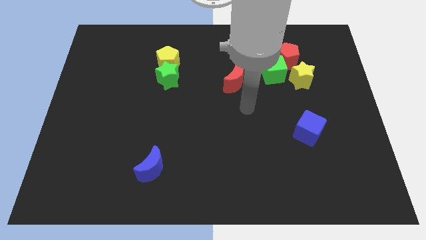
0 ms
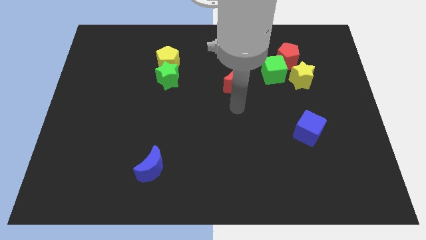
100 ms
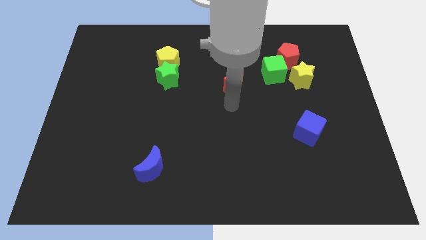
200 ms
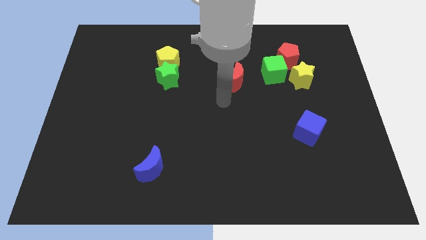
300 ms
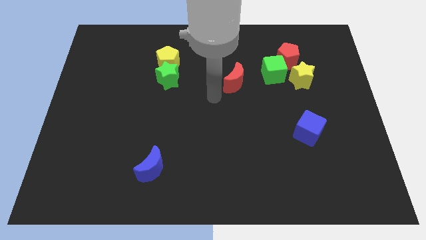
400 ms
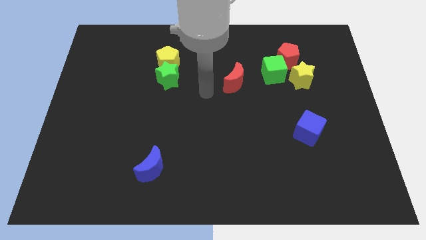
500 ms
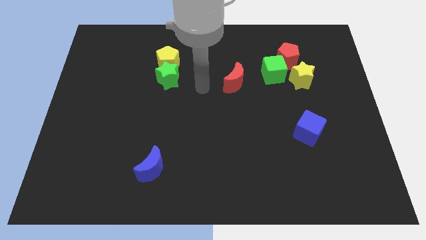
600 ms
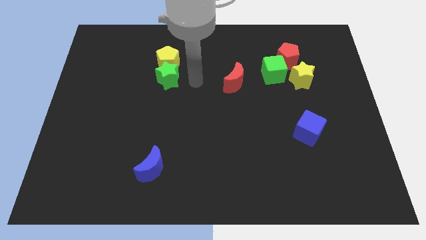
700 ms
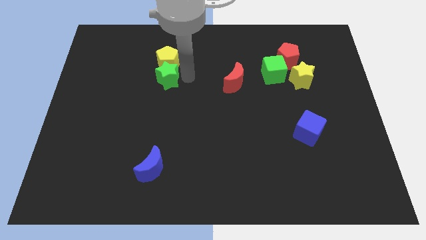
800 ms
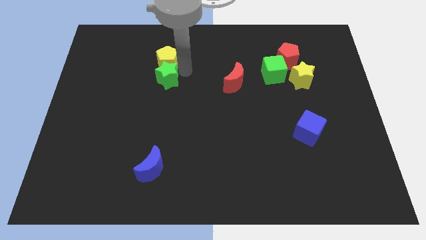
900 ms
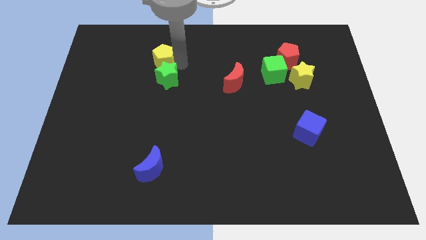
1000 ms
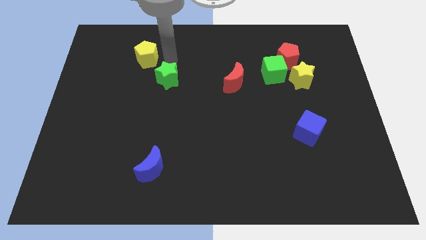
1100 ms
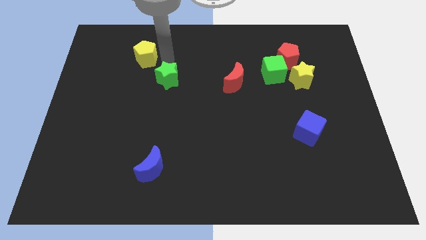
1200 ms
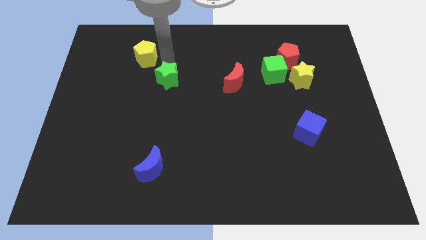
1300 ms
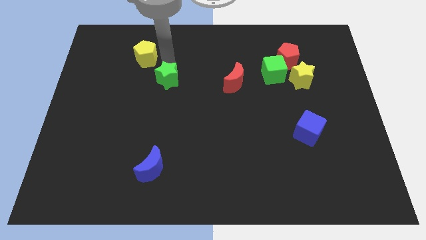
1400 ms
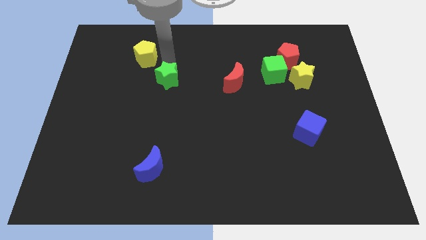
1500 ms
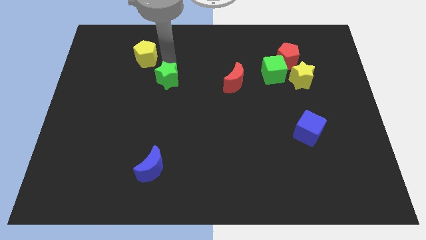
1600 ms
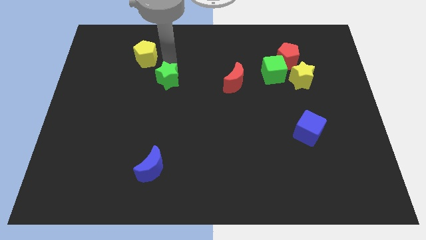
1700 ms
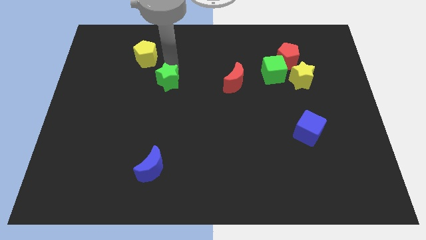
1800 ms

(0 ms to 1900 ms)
separate the green star from the yellow pentagon

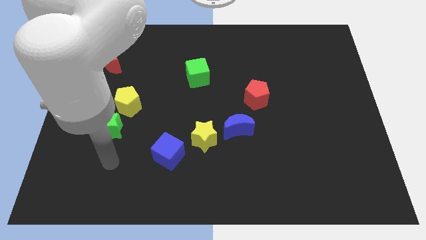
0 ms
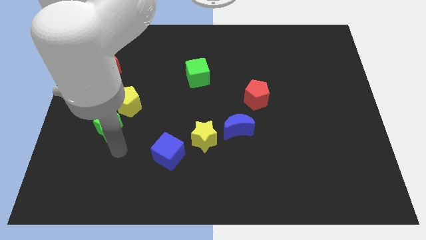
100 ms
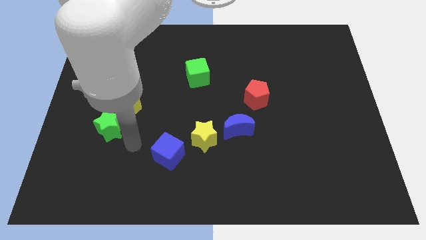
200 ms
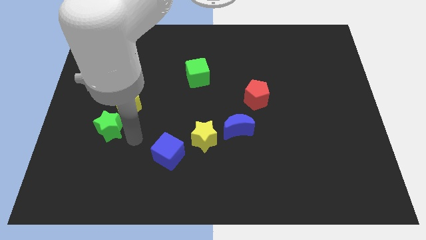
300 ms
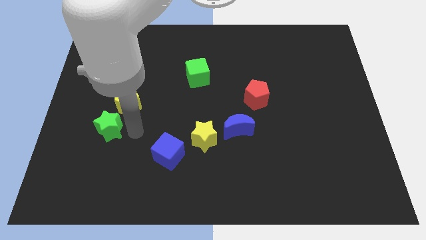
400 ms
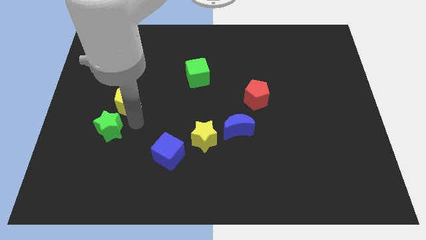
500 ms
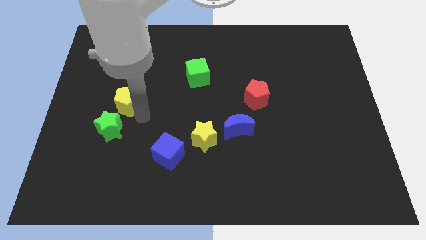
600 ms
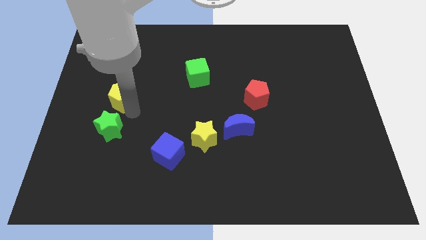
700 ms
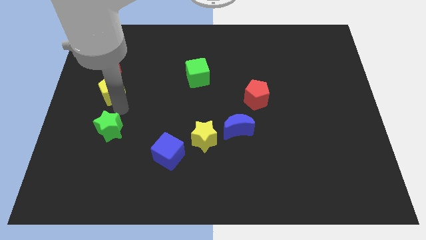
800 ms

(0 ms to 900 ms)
move the green star away from the yellow pentagon

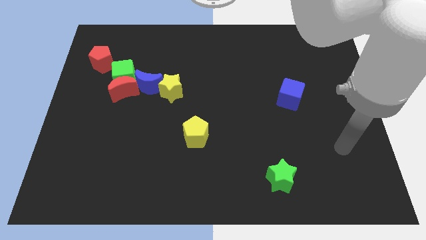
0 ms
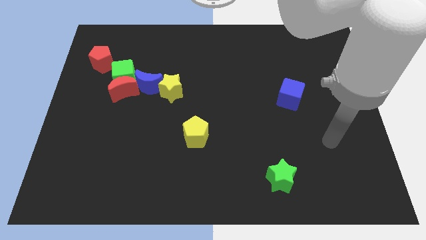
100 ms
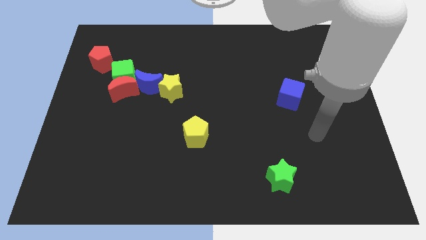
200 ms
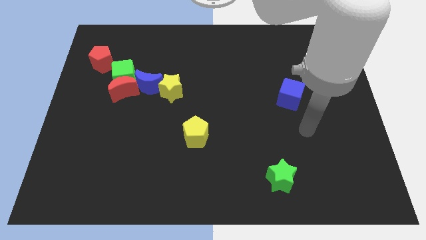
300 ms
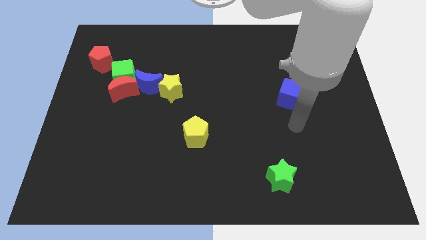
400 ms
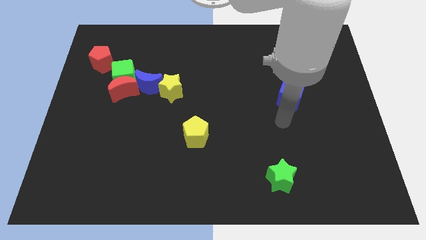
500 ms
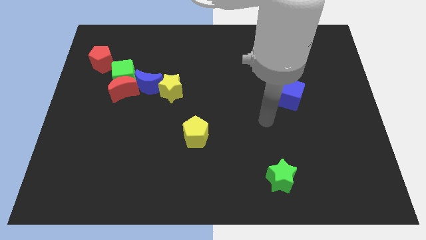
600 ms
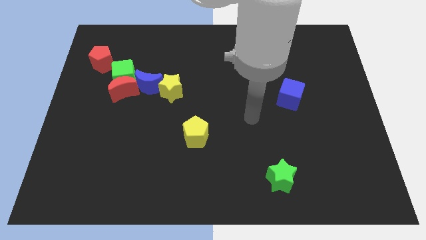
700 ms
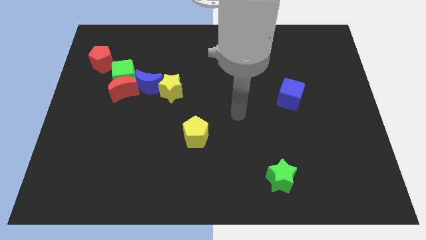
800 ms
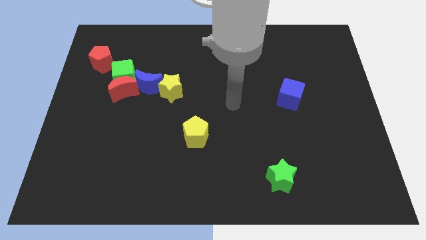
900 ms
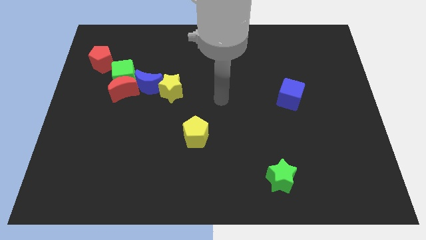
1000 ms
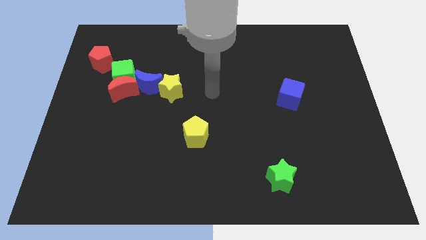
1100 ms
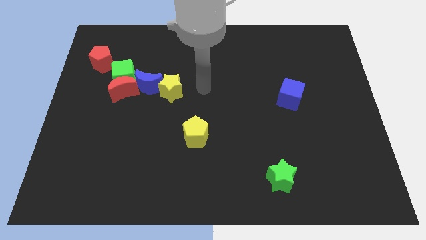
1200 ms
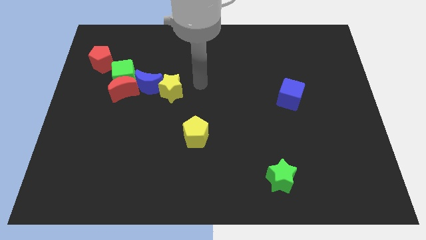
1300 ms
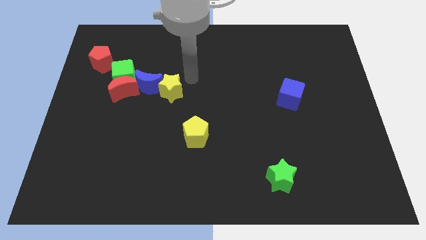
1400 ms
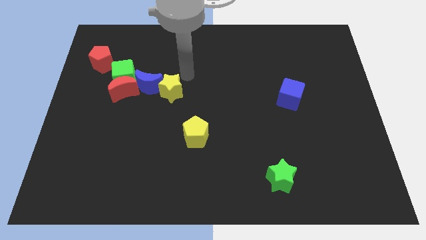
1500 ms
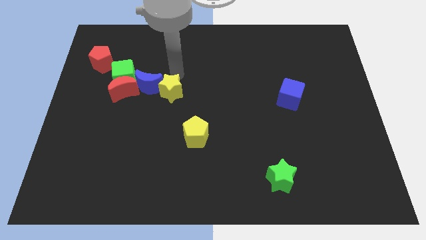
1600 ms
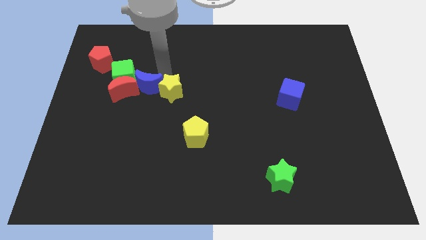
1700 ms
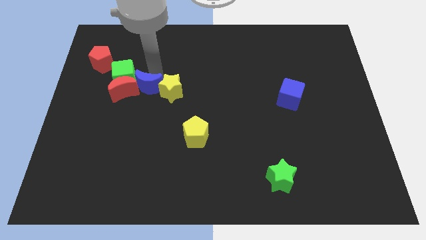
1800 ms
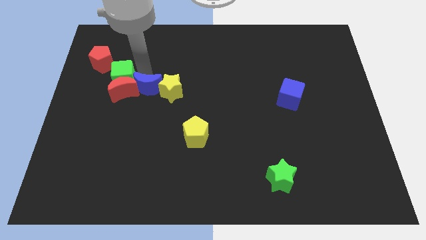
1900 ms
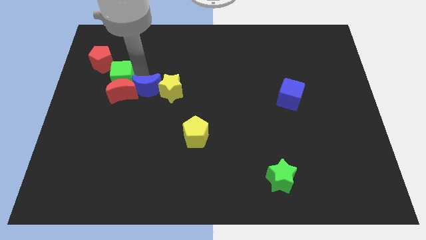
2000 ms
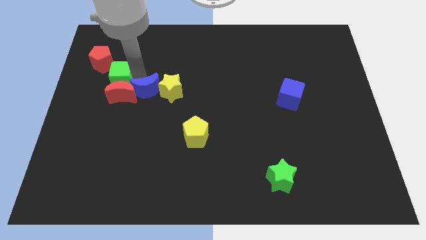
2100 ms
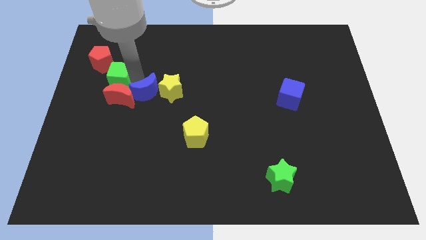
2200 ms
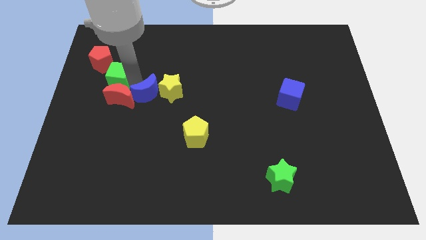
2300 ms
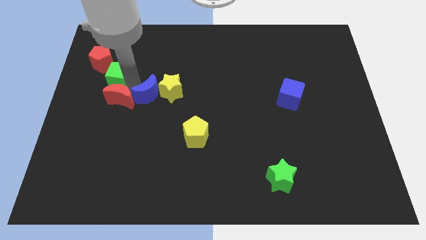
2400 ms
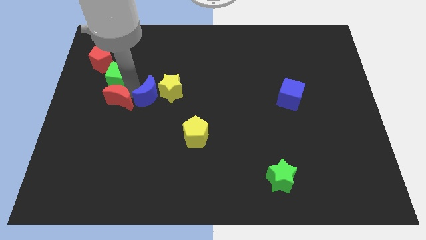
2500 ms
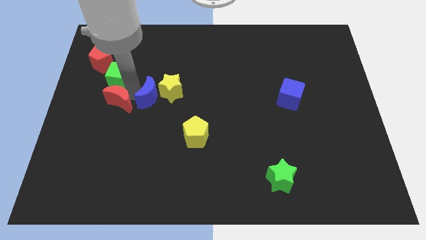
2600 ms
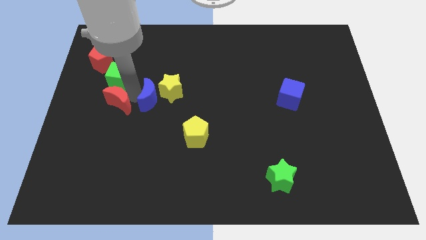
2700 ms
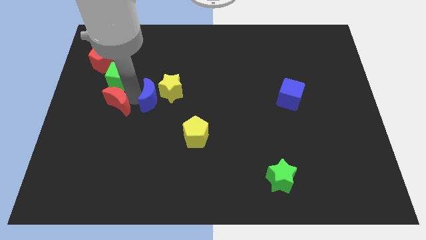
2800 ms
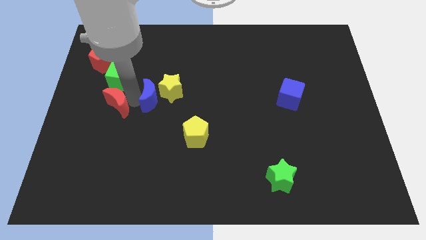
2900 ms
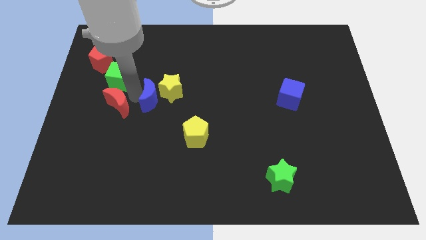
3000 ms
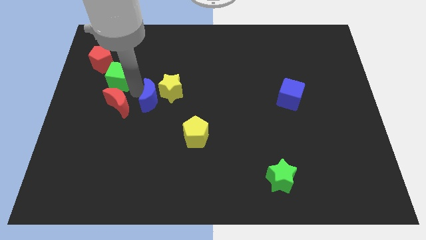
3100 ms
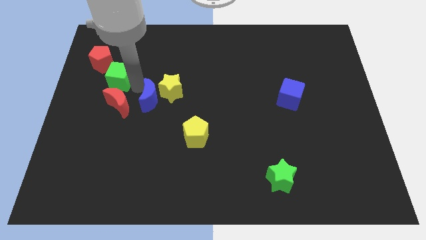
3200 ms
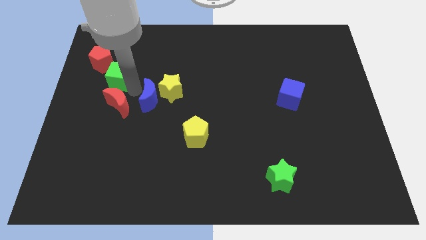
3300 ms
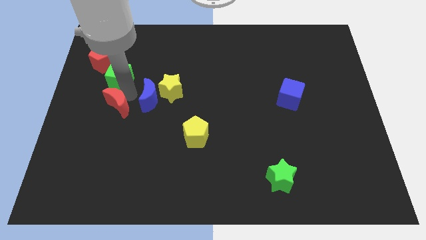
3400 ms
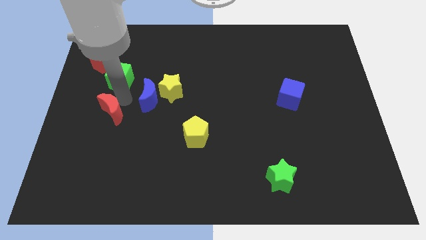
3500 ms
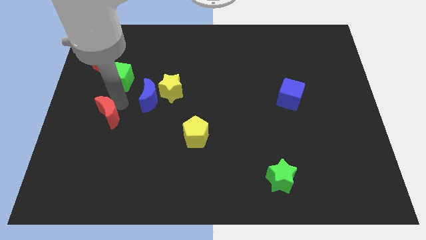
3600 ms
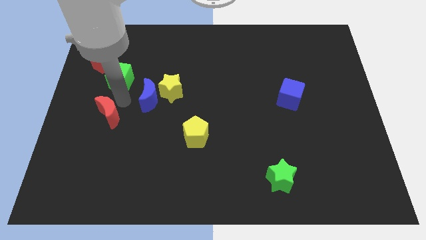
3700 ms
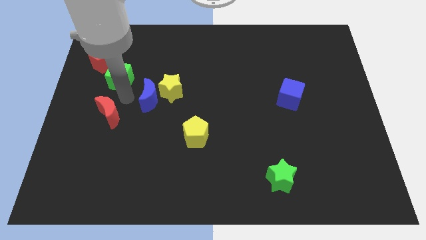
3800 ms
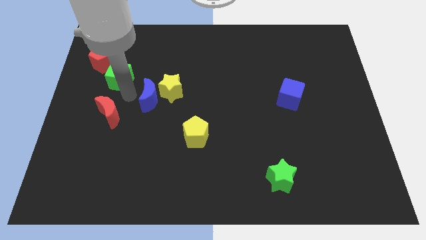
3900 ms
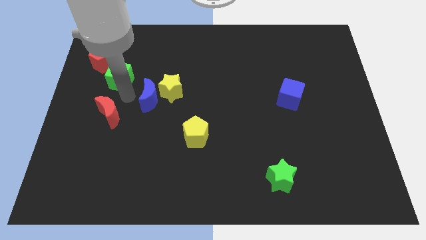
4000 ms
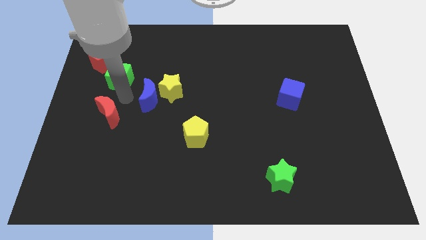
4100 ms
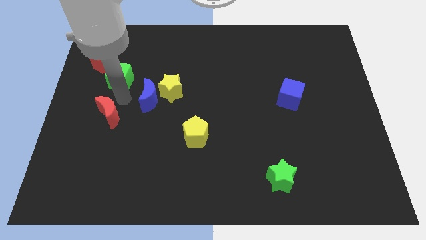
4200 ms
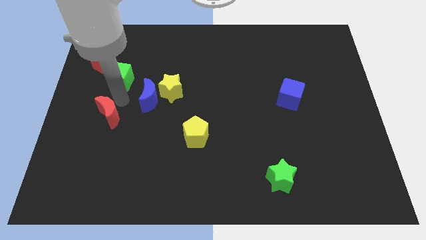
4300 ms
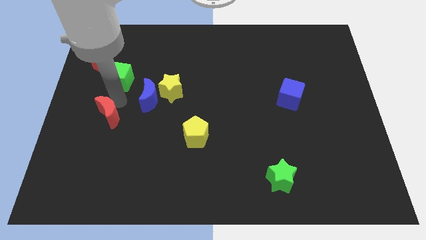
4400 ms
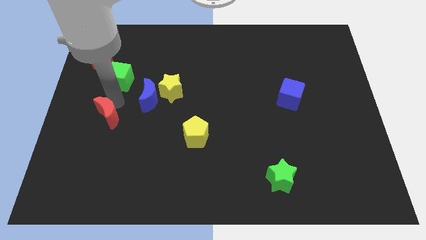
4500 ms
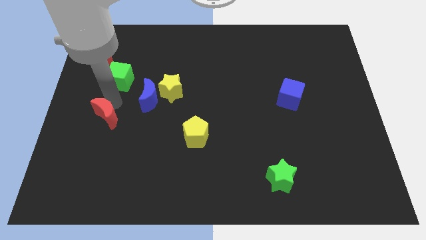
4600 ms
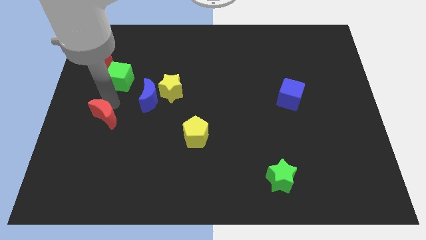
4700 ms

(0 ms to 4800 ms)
move the red moon away from the green cube and blue moon

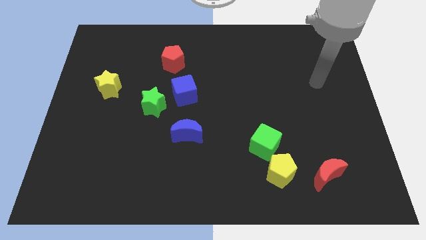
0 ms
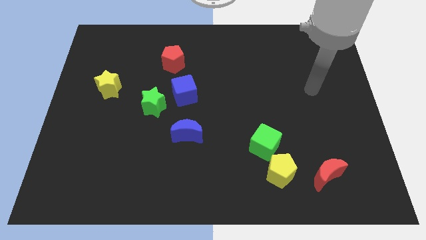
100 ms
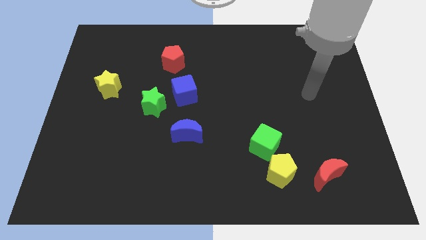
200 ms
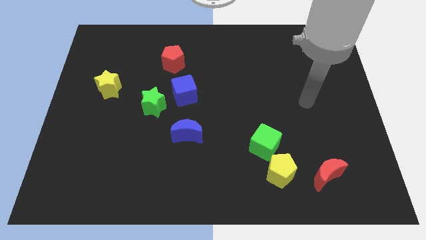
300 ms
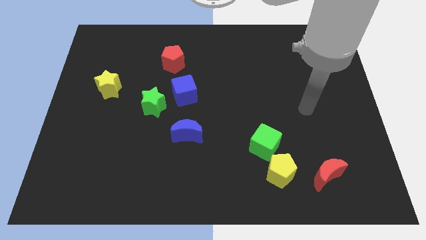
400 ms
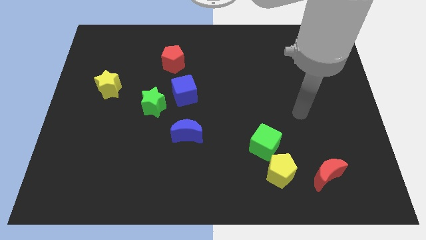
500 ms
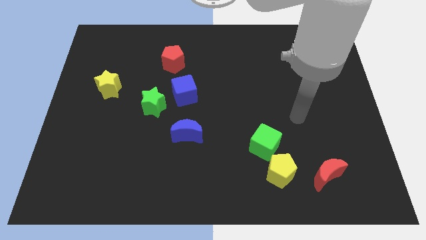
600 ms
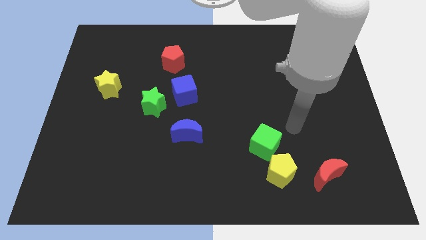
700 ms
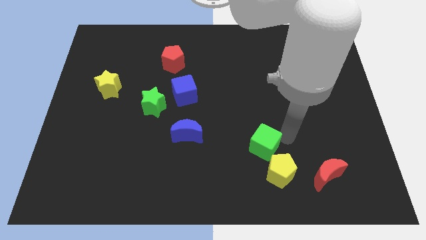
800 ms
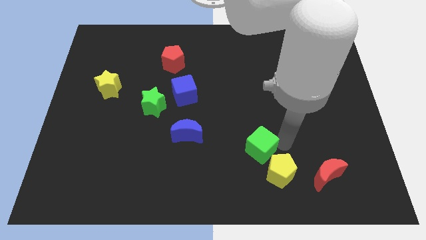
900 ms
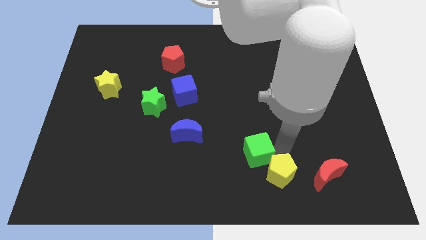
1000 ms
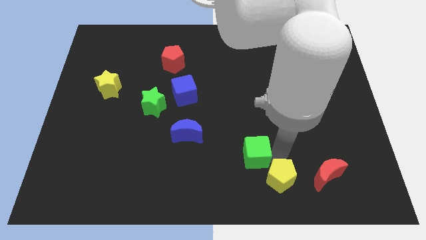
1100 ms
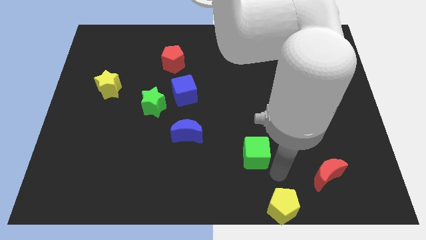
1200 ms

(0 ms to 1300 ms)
separate the green cube from the yellow pentagon

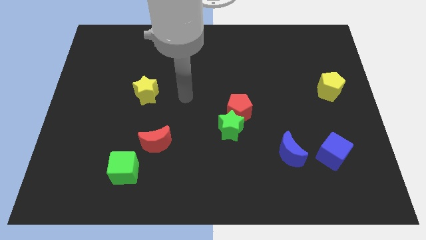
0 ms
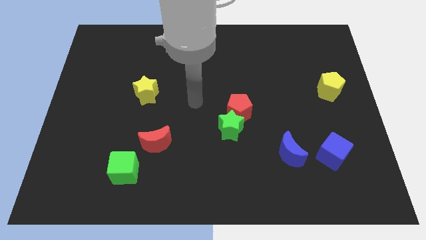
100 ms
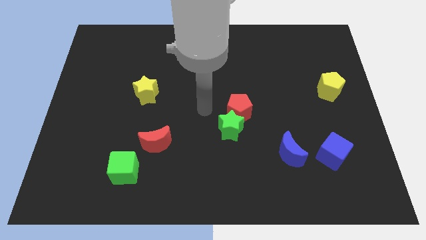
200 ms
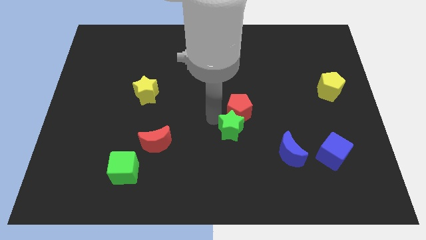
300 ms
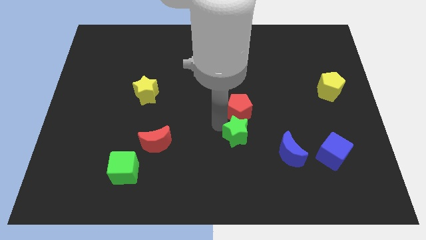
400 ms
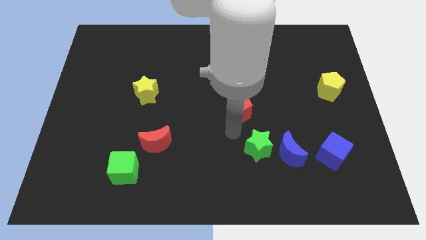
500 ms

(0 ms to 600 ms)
pull the red pentagon apart from the green star
